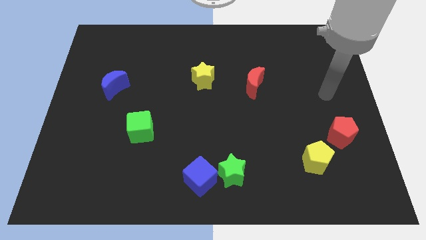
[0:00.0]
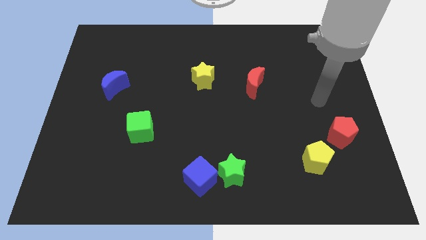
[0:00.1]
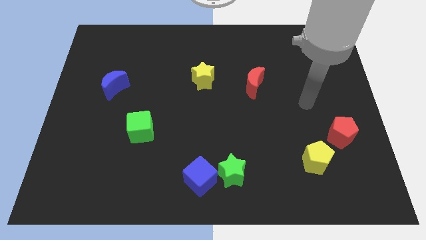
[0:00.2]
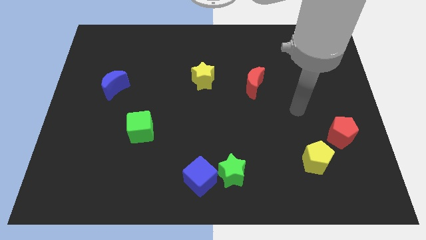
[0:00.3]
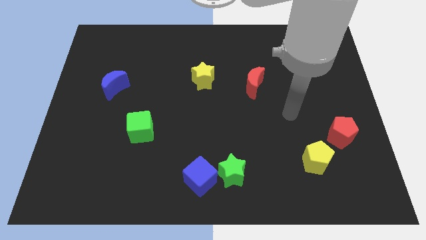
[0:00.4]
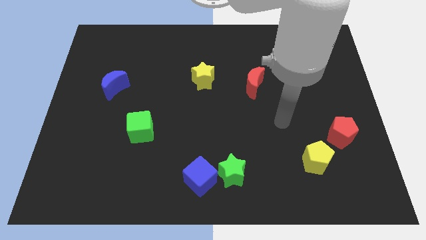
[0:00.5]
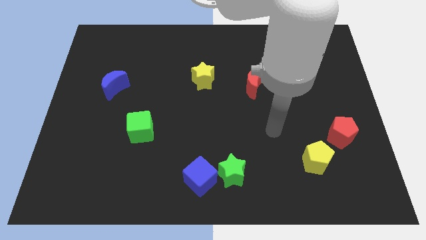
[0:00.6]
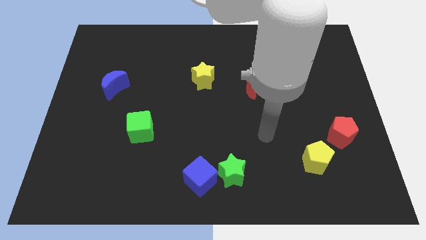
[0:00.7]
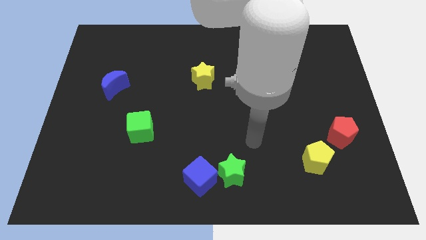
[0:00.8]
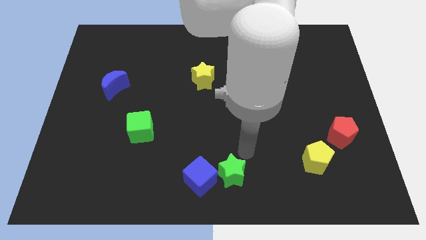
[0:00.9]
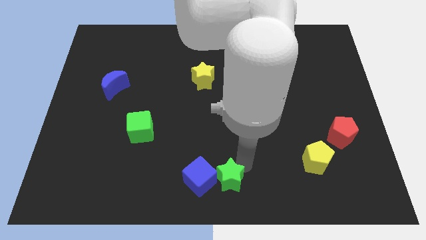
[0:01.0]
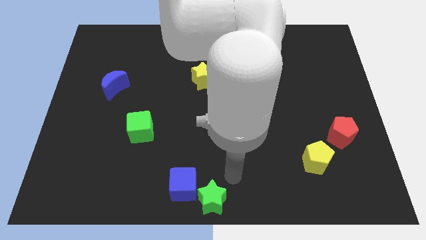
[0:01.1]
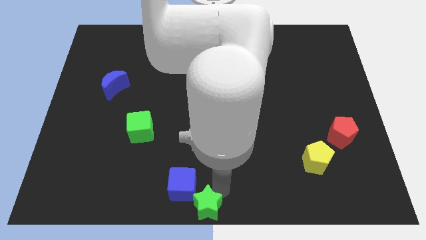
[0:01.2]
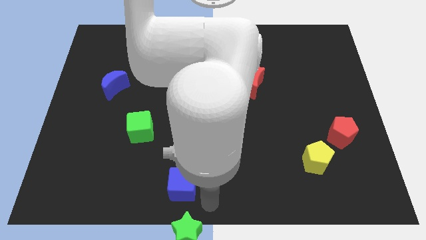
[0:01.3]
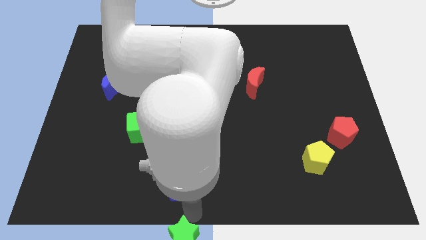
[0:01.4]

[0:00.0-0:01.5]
pull the blue cube apart from the green star

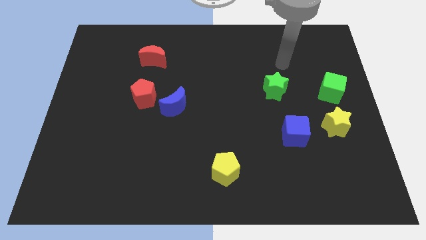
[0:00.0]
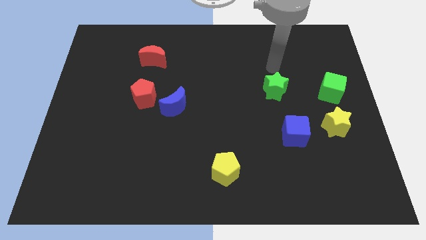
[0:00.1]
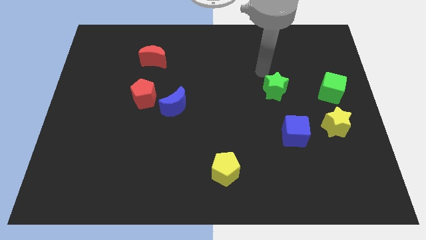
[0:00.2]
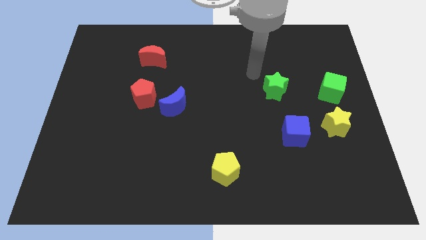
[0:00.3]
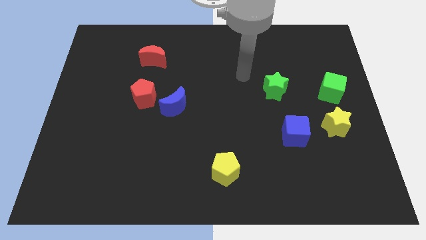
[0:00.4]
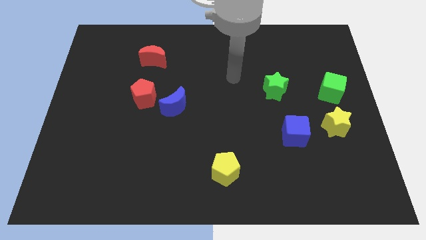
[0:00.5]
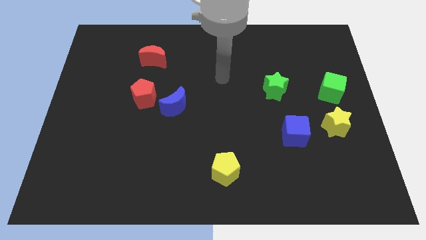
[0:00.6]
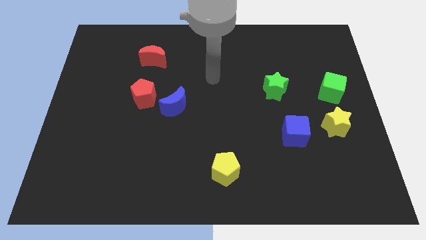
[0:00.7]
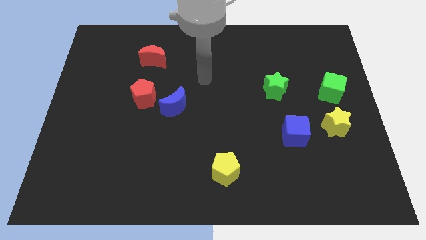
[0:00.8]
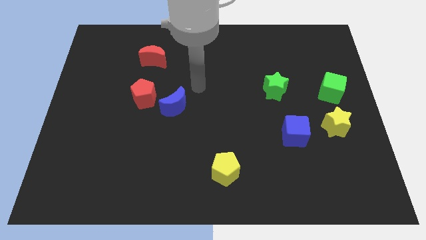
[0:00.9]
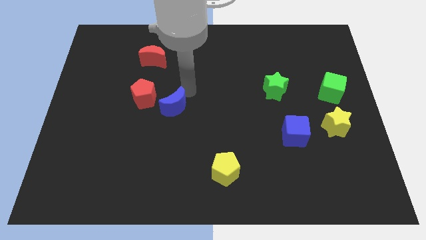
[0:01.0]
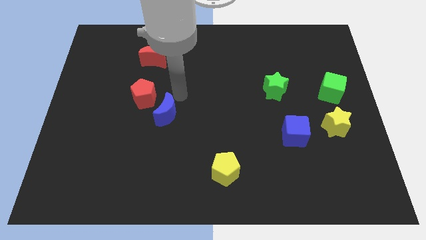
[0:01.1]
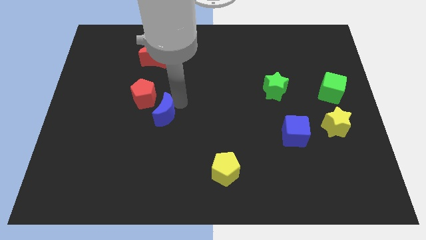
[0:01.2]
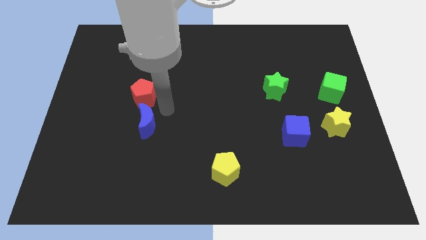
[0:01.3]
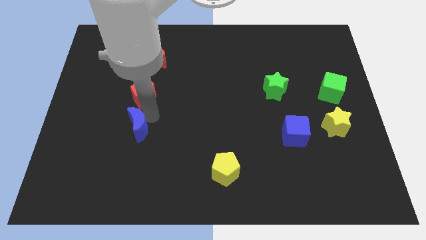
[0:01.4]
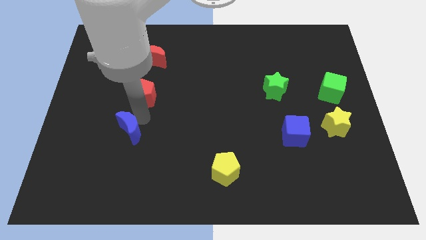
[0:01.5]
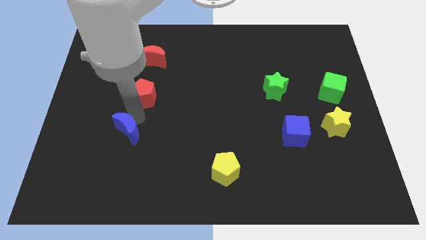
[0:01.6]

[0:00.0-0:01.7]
separate the red pentagon from the blue moon

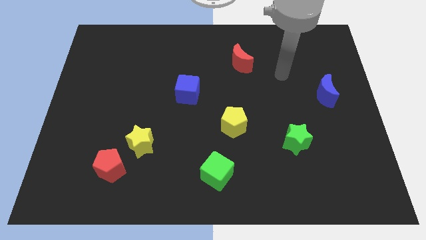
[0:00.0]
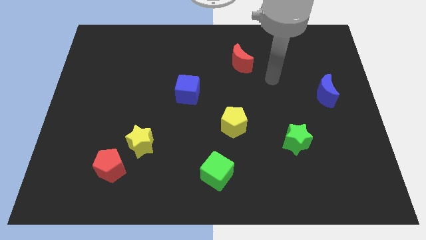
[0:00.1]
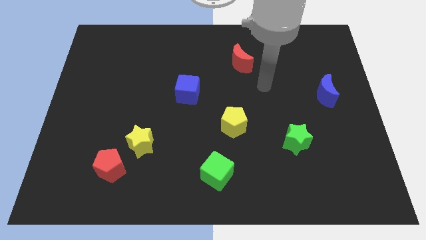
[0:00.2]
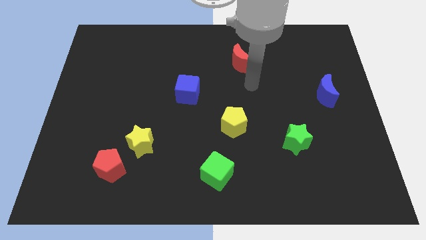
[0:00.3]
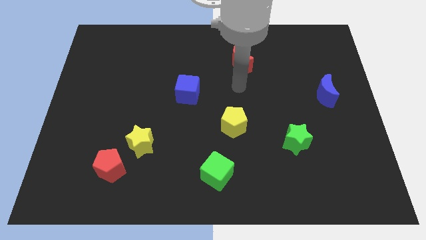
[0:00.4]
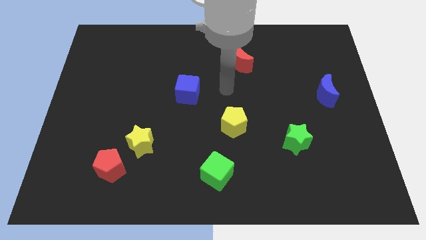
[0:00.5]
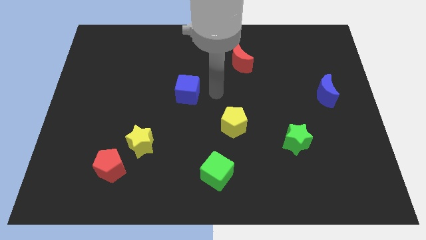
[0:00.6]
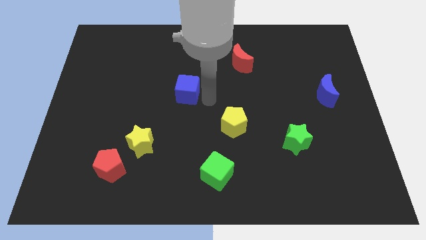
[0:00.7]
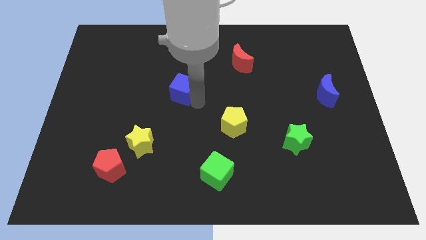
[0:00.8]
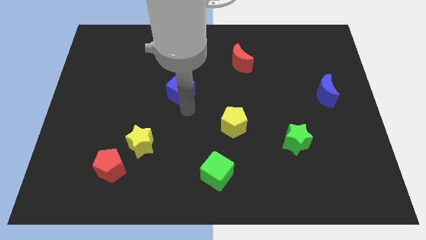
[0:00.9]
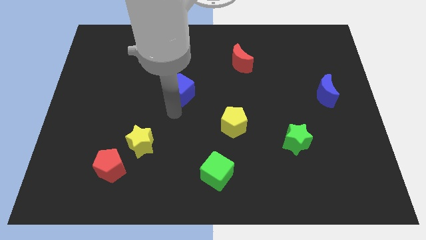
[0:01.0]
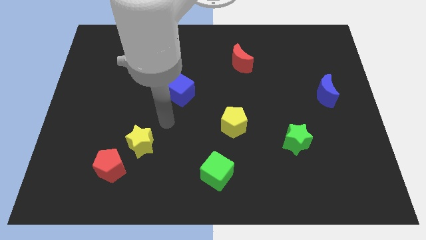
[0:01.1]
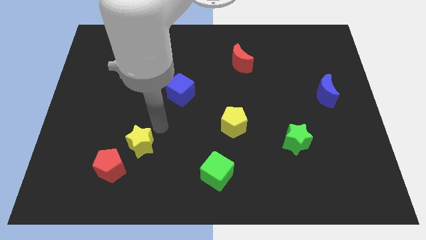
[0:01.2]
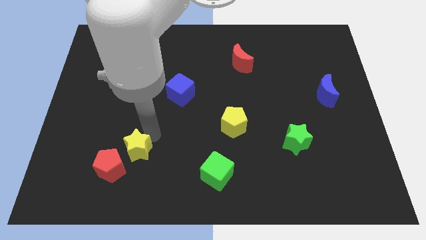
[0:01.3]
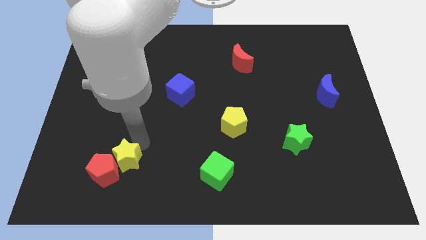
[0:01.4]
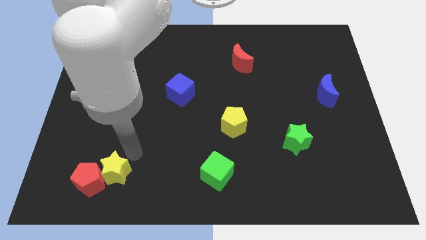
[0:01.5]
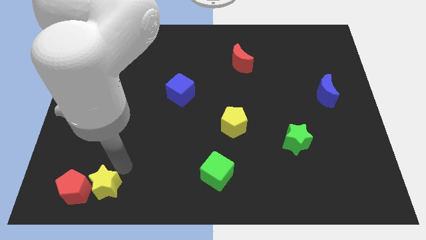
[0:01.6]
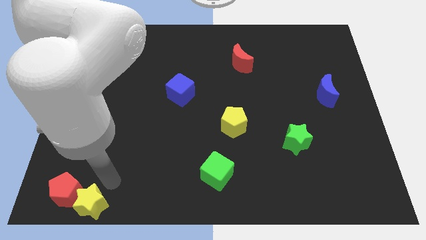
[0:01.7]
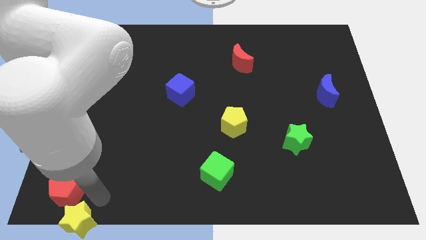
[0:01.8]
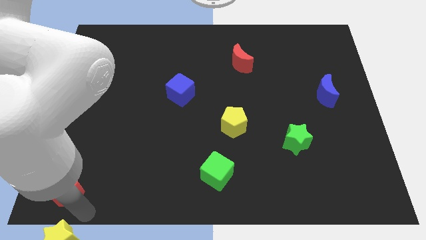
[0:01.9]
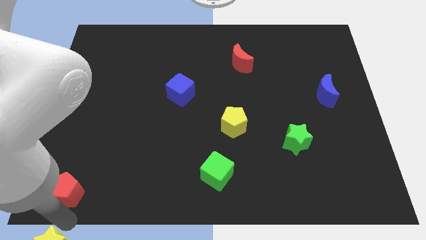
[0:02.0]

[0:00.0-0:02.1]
pull the red pentagon apart from the yellow star

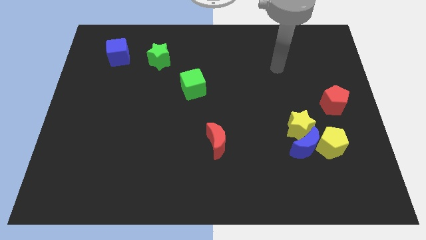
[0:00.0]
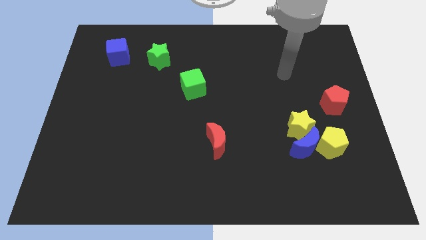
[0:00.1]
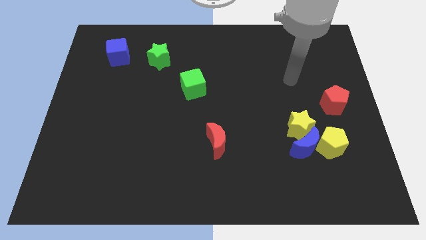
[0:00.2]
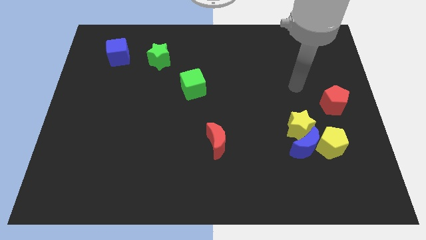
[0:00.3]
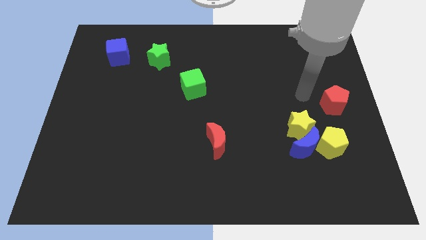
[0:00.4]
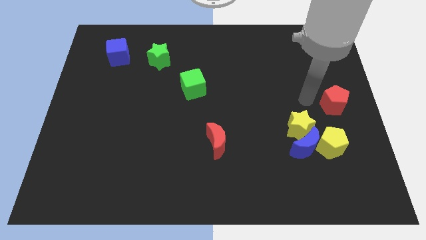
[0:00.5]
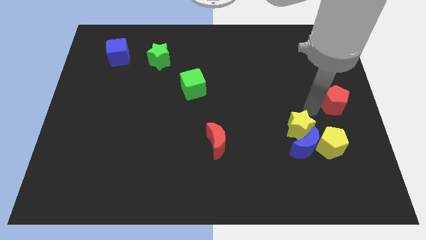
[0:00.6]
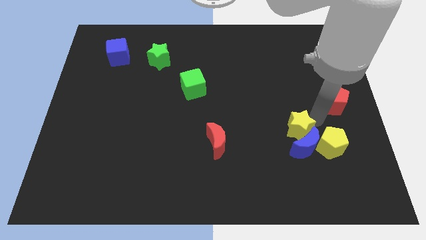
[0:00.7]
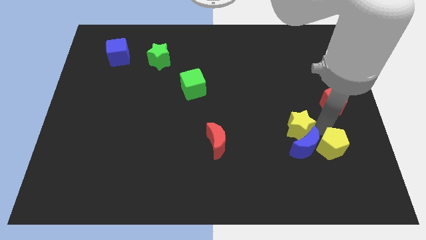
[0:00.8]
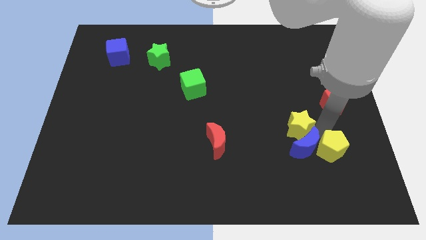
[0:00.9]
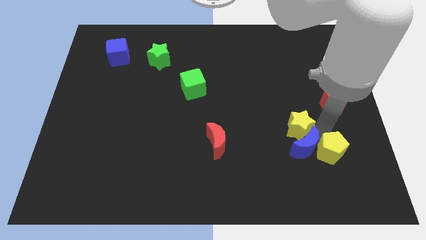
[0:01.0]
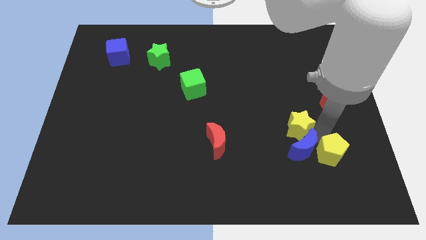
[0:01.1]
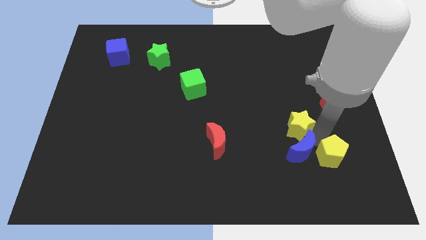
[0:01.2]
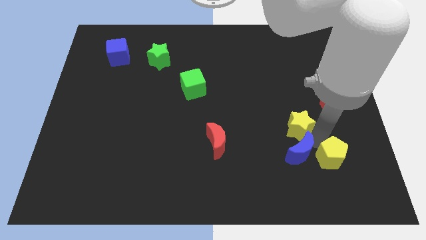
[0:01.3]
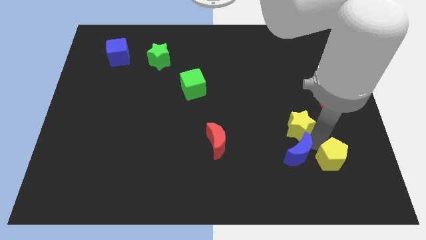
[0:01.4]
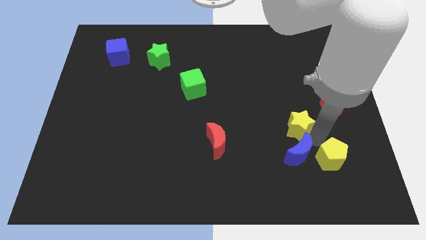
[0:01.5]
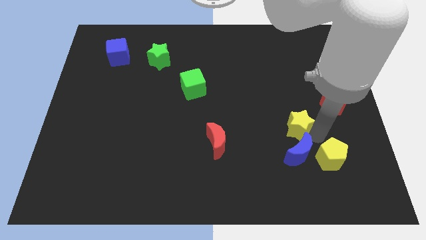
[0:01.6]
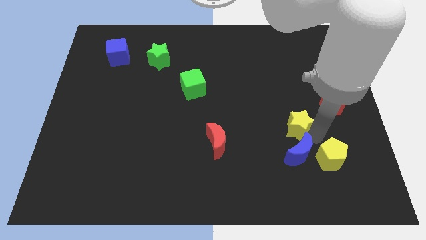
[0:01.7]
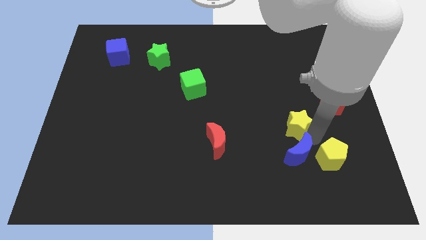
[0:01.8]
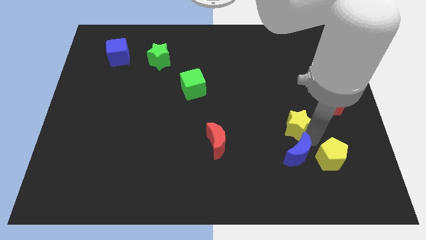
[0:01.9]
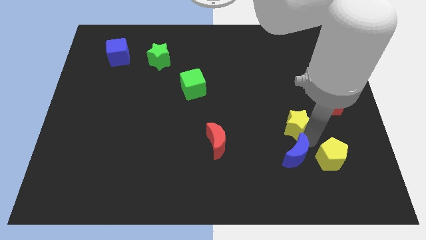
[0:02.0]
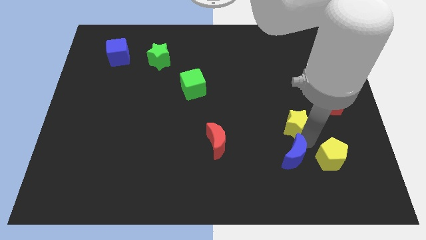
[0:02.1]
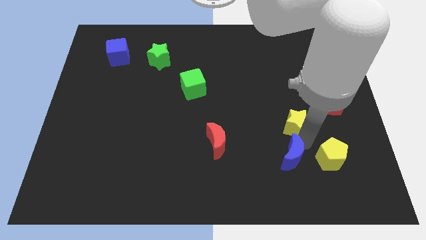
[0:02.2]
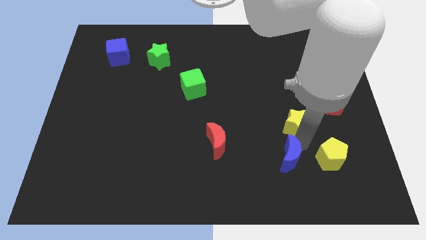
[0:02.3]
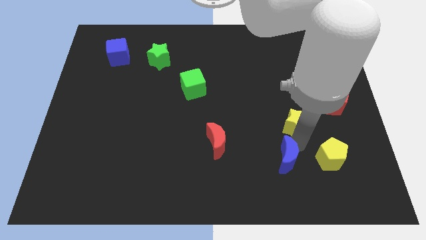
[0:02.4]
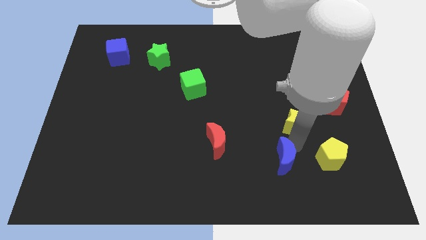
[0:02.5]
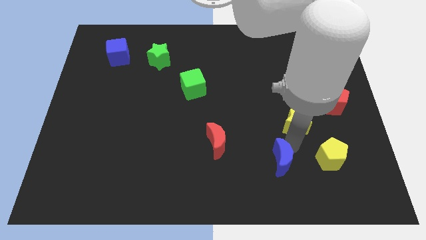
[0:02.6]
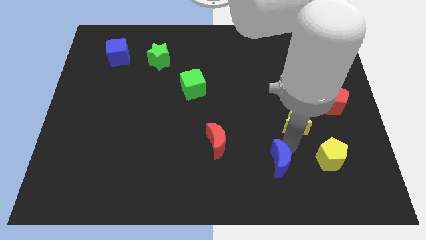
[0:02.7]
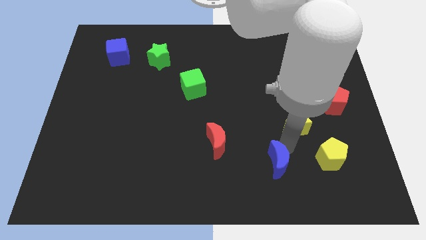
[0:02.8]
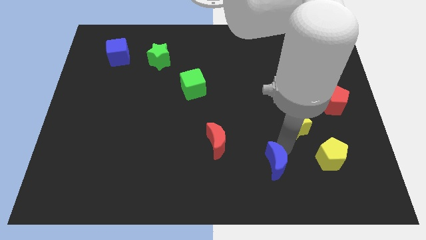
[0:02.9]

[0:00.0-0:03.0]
pull the blue moon apart from the yellow star and yellow pentagon

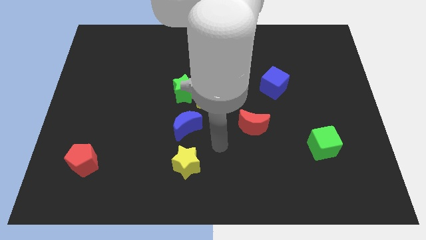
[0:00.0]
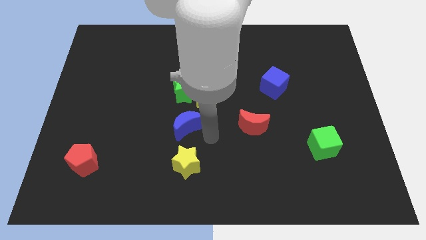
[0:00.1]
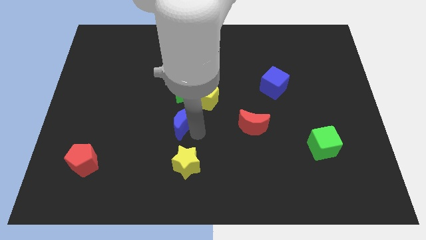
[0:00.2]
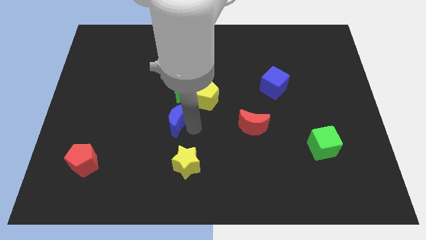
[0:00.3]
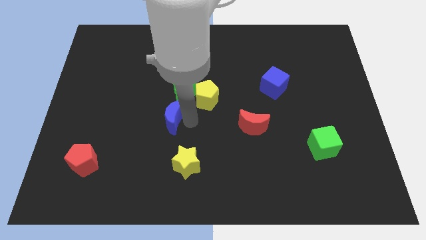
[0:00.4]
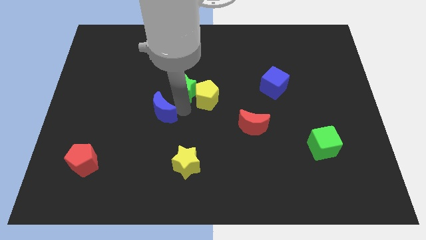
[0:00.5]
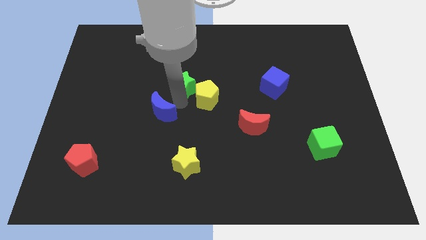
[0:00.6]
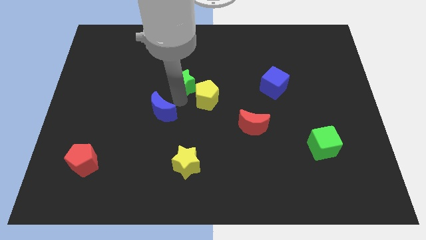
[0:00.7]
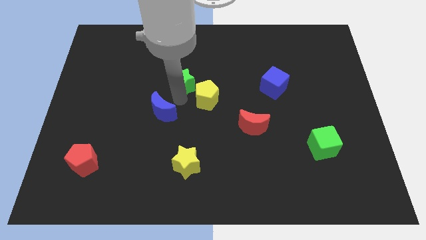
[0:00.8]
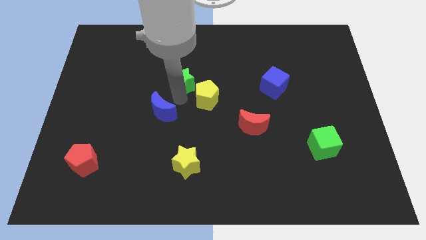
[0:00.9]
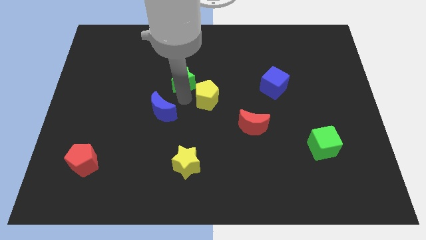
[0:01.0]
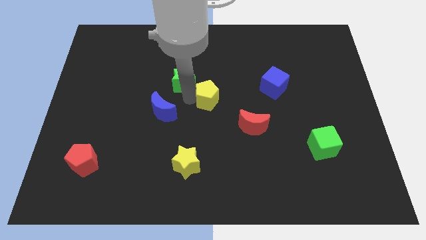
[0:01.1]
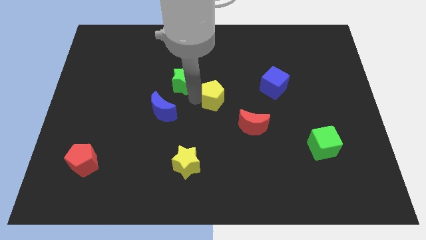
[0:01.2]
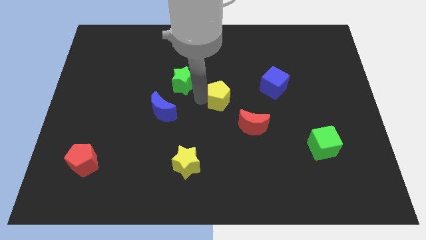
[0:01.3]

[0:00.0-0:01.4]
separate the yellow pentagon from the green star and blue moon
